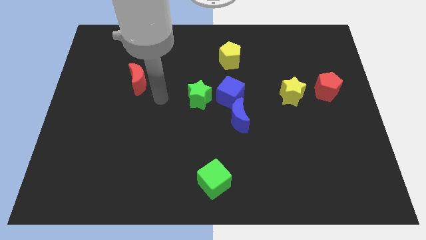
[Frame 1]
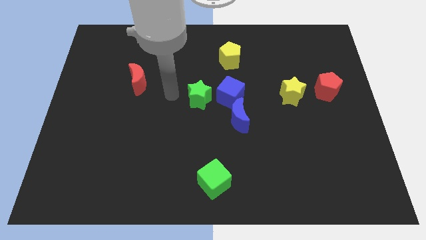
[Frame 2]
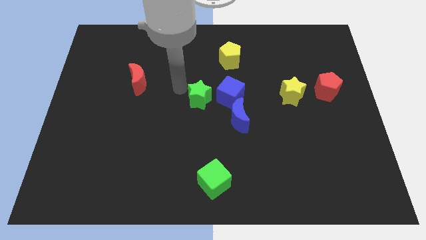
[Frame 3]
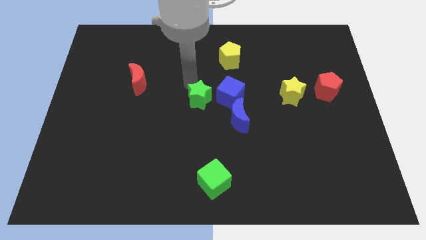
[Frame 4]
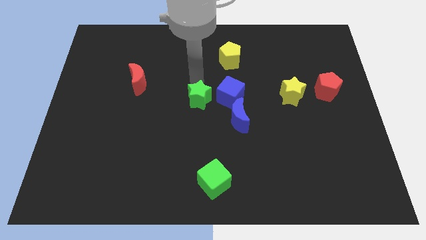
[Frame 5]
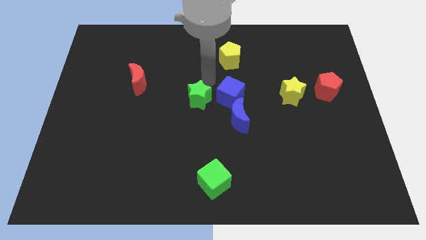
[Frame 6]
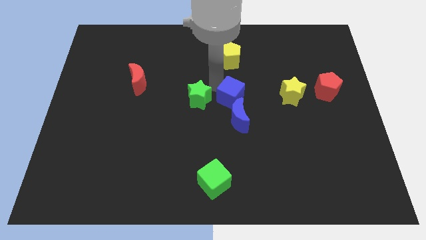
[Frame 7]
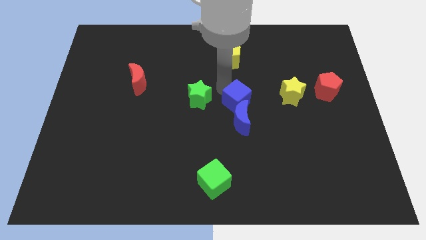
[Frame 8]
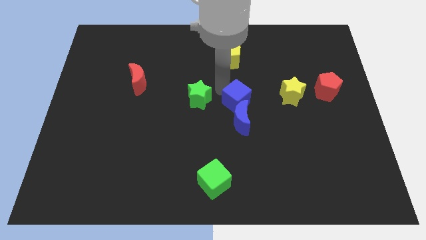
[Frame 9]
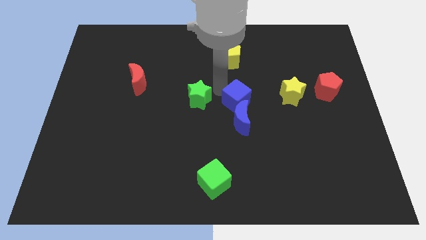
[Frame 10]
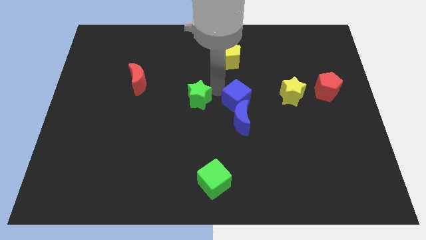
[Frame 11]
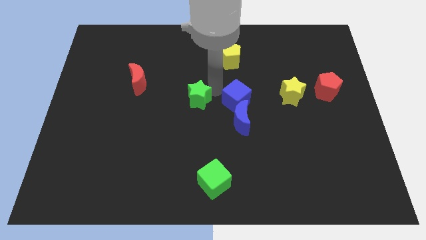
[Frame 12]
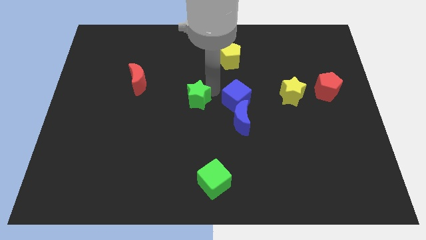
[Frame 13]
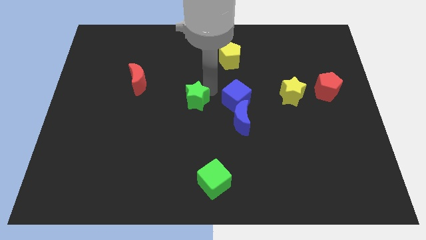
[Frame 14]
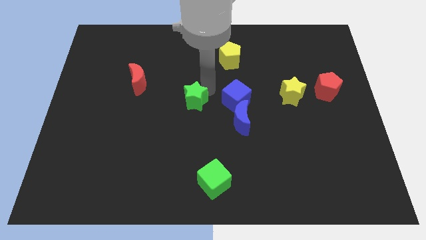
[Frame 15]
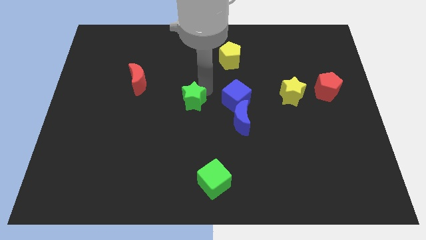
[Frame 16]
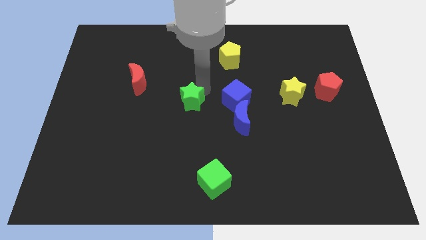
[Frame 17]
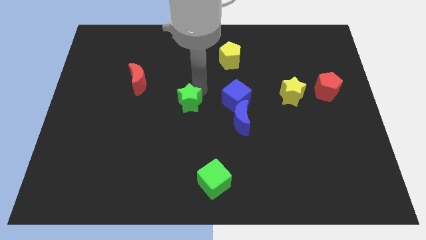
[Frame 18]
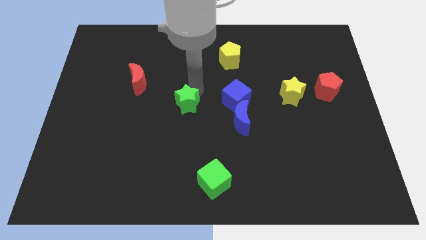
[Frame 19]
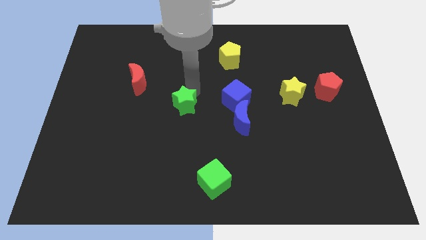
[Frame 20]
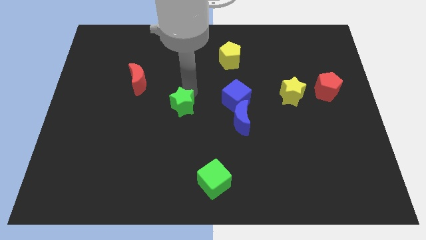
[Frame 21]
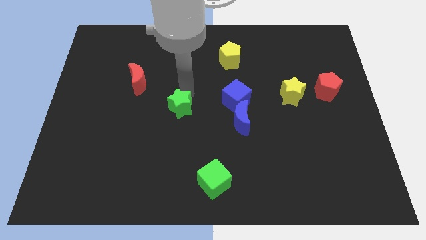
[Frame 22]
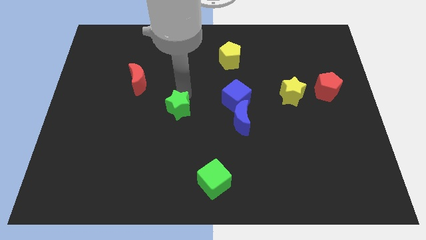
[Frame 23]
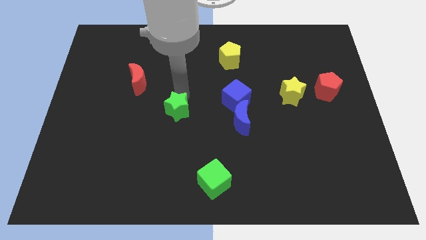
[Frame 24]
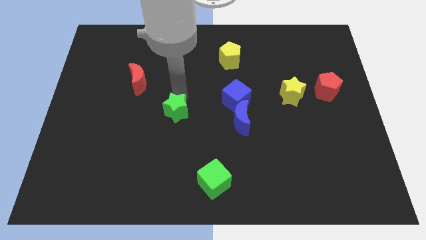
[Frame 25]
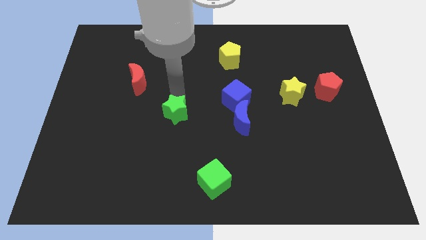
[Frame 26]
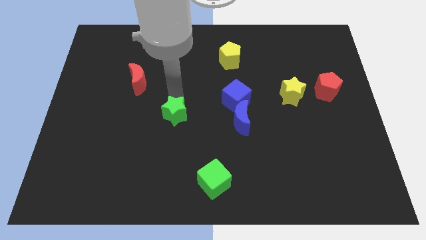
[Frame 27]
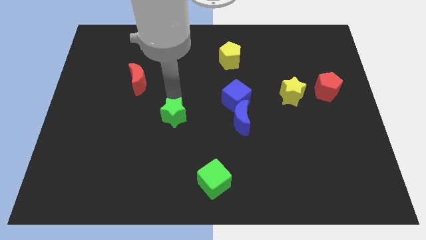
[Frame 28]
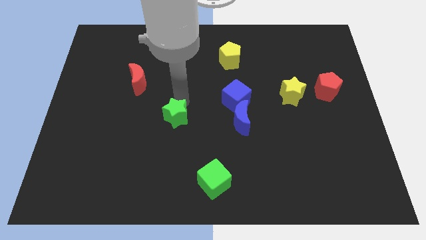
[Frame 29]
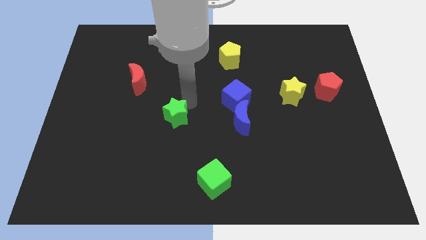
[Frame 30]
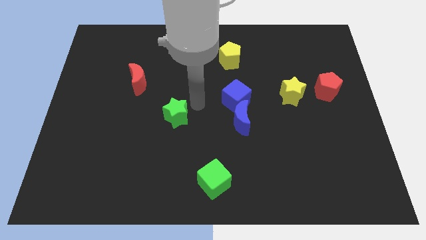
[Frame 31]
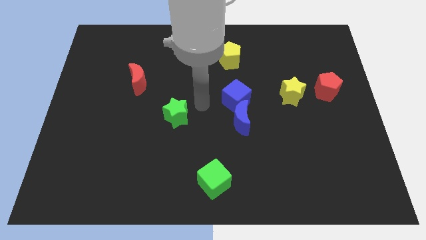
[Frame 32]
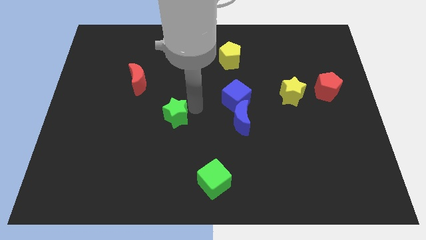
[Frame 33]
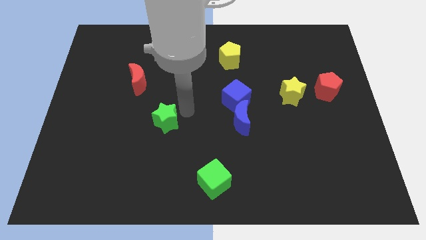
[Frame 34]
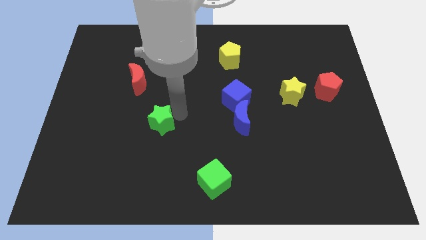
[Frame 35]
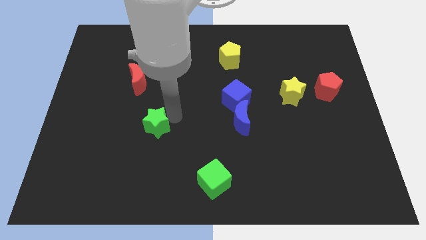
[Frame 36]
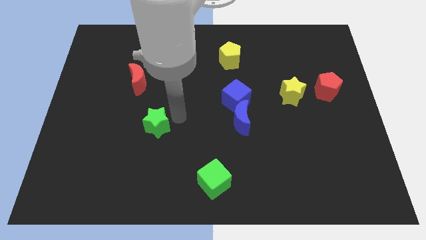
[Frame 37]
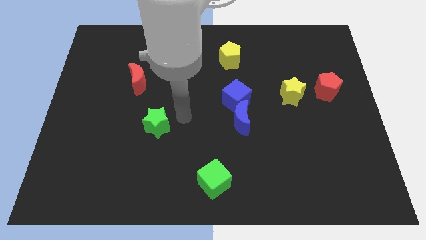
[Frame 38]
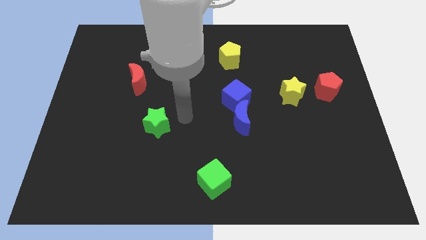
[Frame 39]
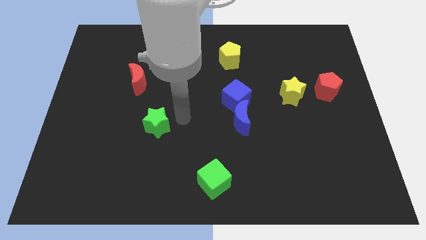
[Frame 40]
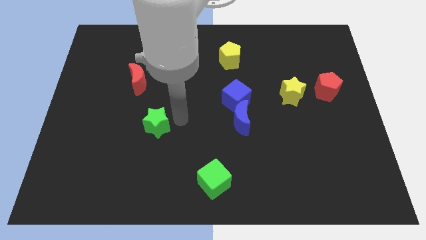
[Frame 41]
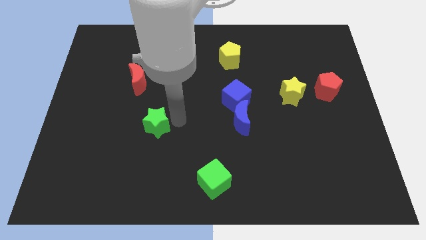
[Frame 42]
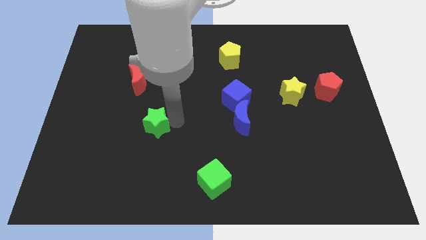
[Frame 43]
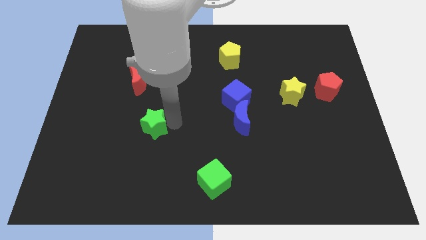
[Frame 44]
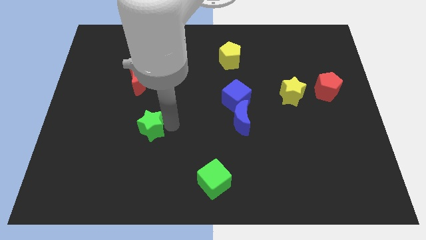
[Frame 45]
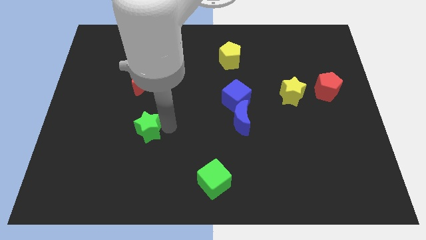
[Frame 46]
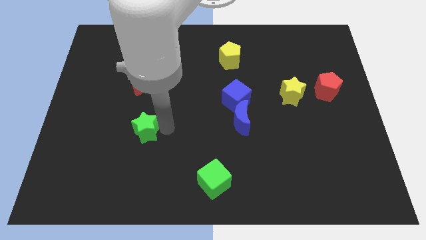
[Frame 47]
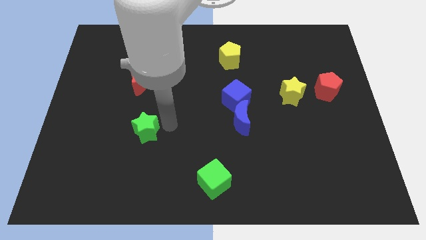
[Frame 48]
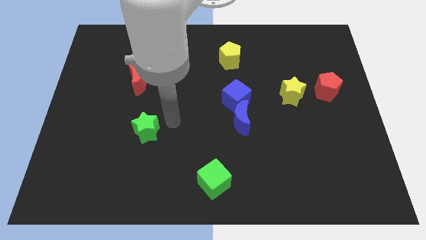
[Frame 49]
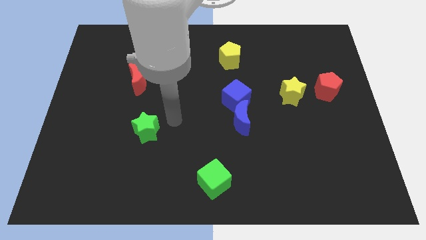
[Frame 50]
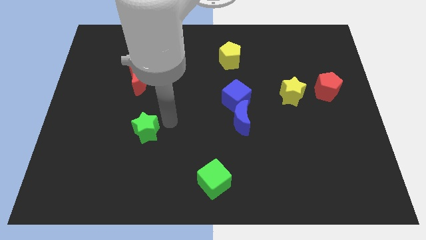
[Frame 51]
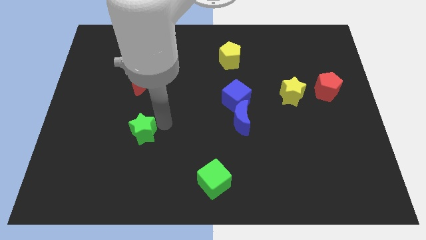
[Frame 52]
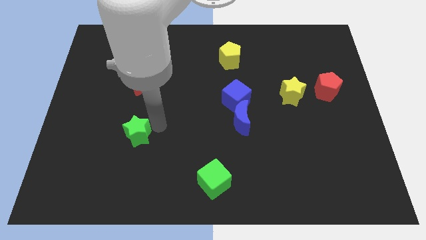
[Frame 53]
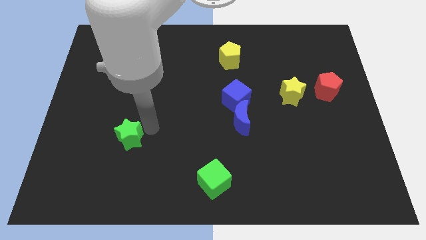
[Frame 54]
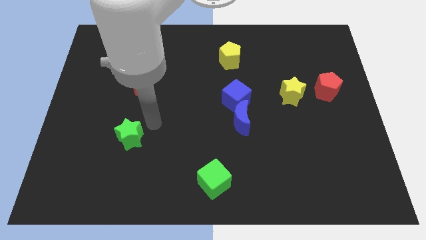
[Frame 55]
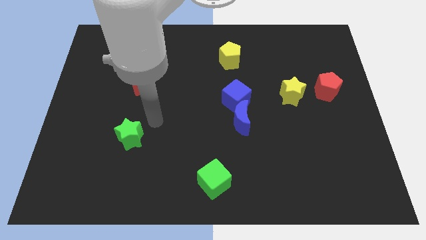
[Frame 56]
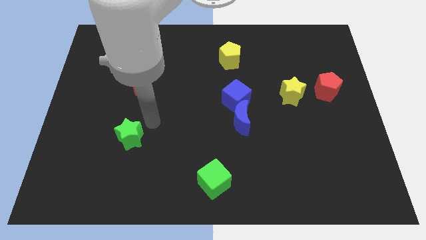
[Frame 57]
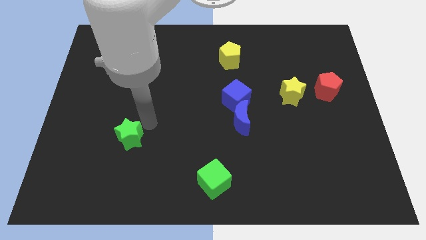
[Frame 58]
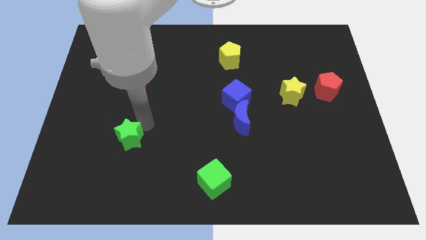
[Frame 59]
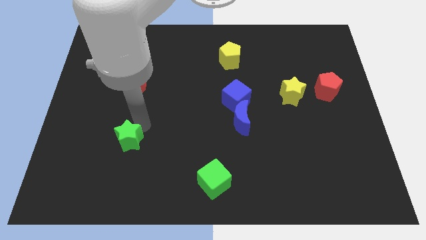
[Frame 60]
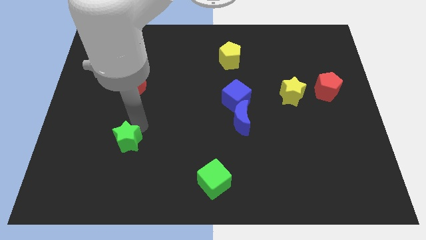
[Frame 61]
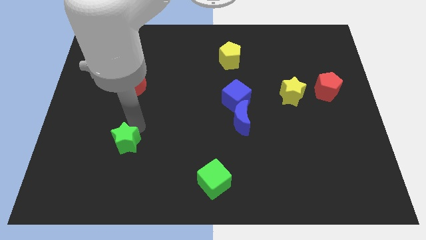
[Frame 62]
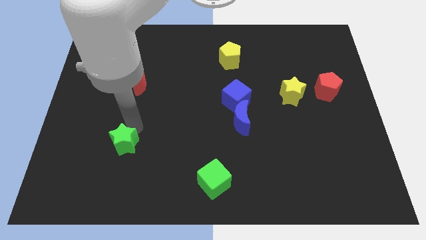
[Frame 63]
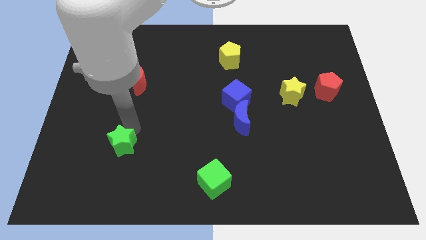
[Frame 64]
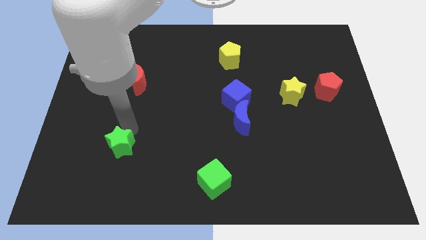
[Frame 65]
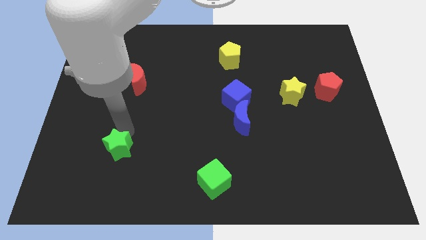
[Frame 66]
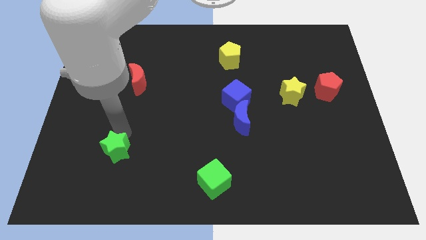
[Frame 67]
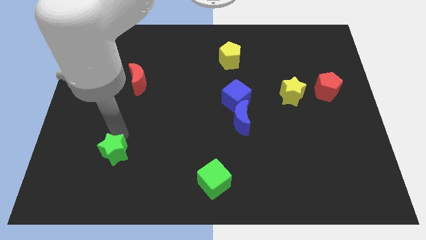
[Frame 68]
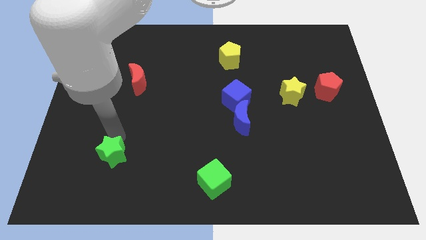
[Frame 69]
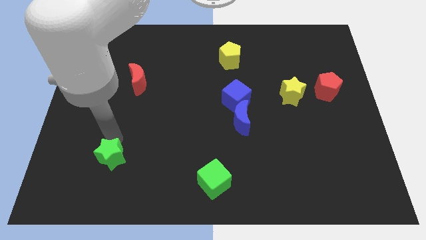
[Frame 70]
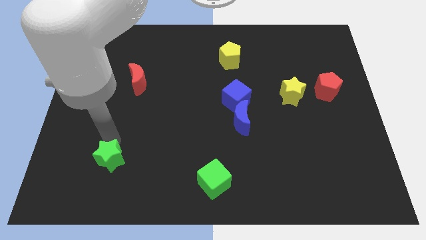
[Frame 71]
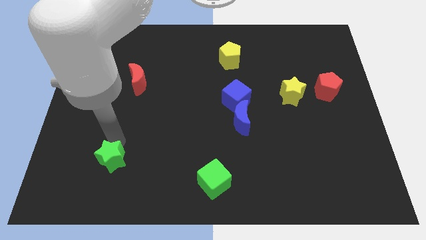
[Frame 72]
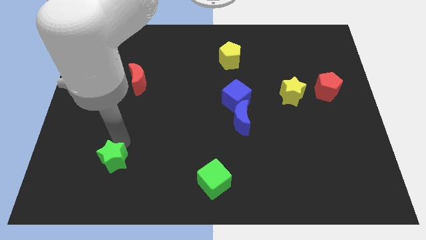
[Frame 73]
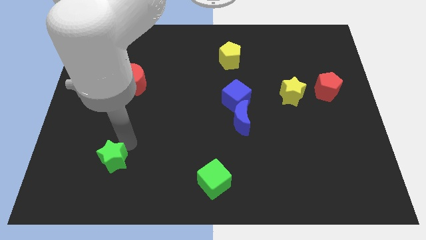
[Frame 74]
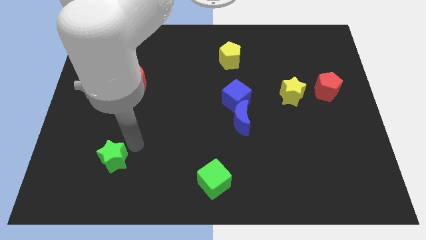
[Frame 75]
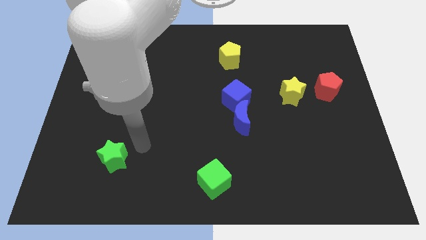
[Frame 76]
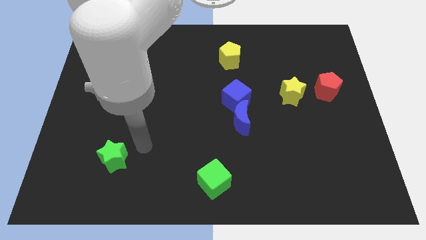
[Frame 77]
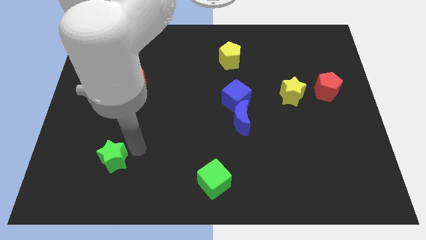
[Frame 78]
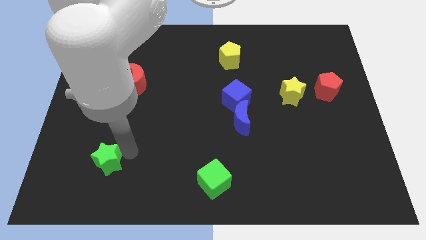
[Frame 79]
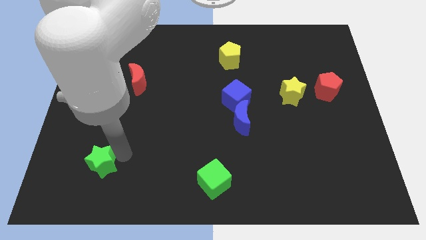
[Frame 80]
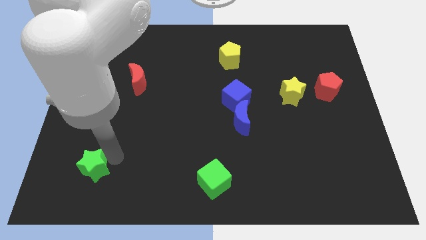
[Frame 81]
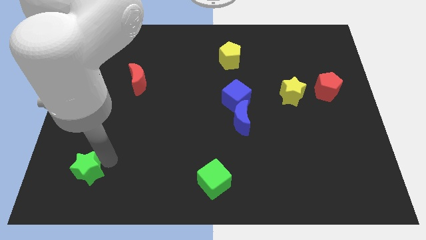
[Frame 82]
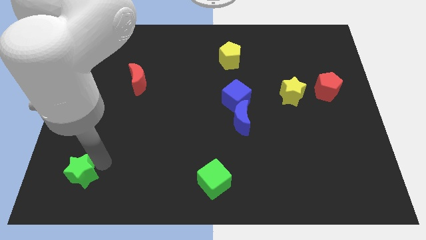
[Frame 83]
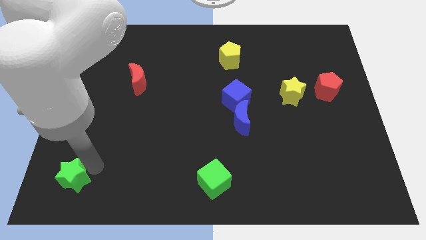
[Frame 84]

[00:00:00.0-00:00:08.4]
push the green star to the bottom left of the board
